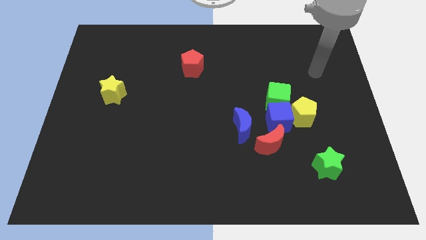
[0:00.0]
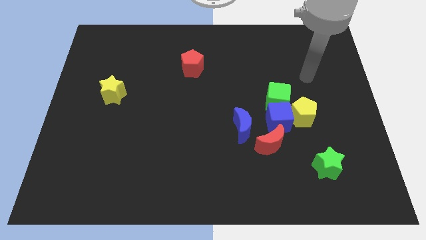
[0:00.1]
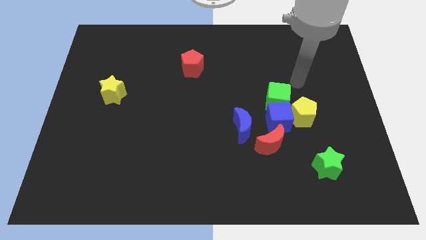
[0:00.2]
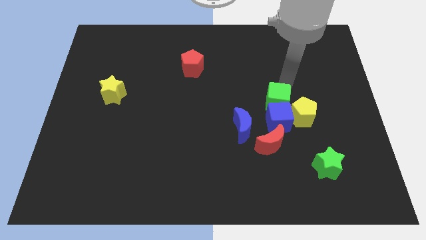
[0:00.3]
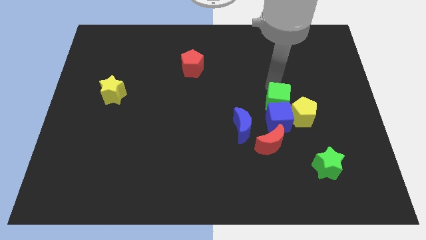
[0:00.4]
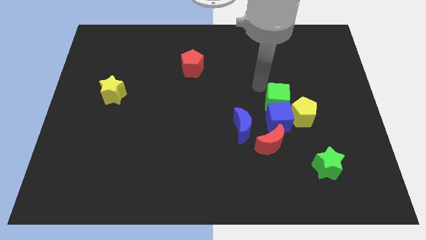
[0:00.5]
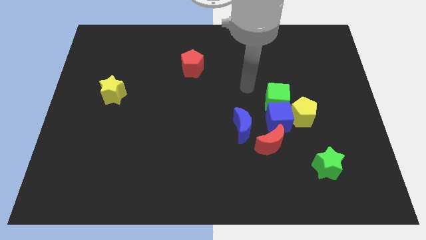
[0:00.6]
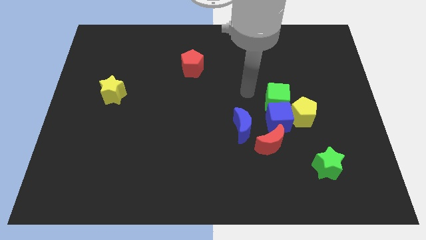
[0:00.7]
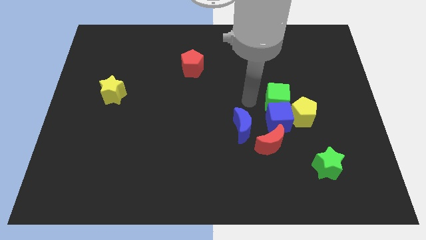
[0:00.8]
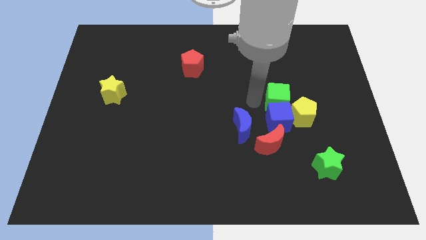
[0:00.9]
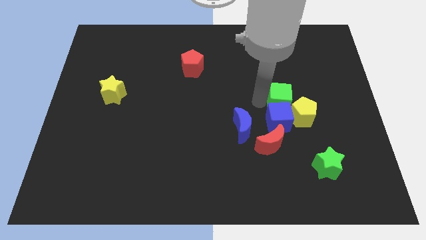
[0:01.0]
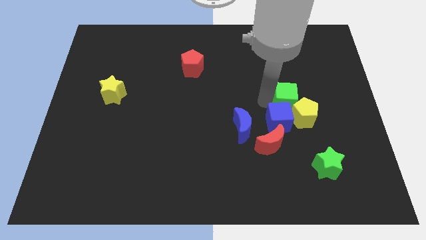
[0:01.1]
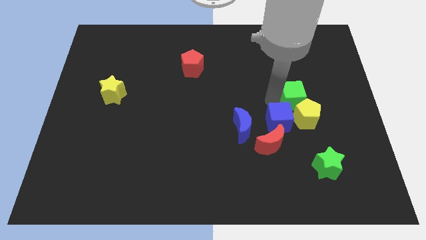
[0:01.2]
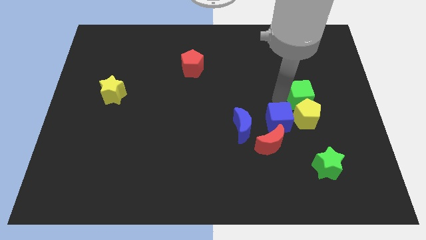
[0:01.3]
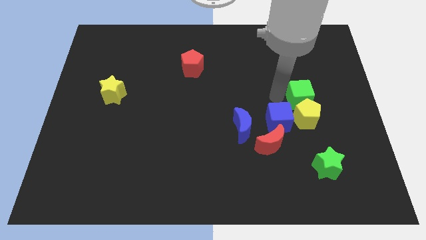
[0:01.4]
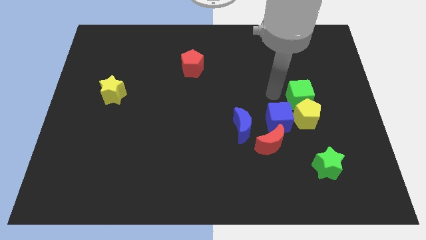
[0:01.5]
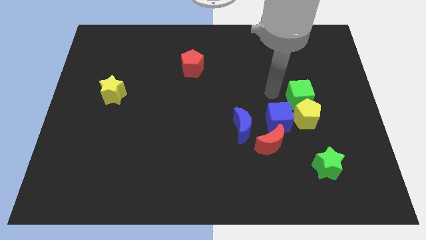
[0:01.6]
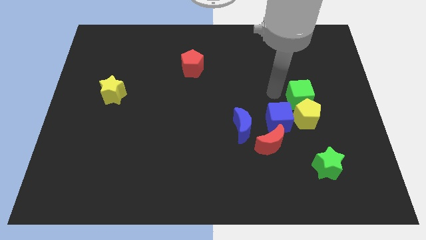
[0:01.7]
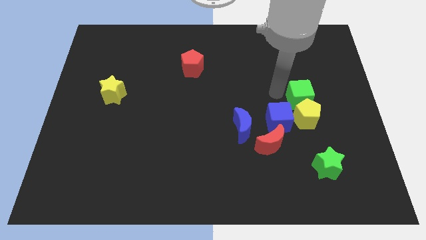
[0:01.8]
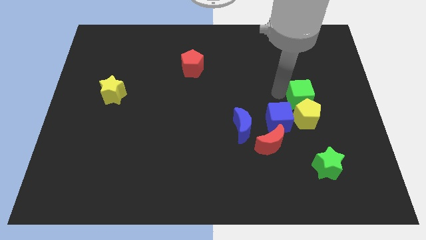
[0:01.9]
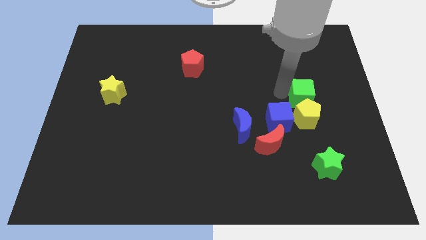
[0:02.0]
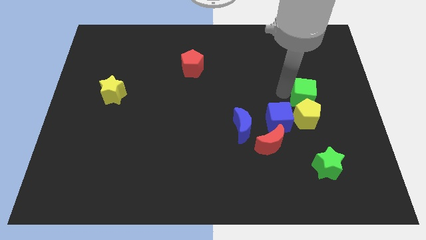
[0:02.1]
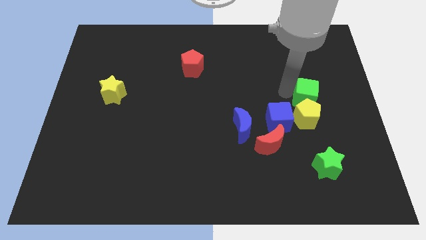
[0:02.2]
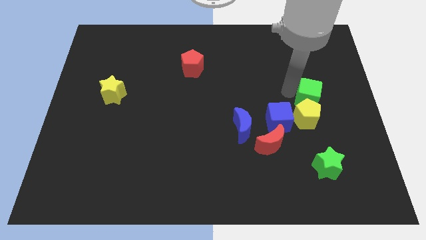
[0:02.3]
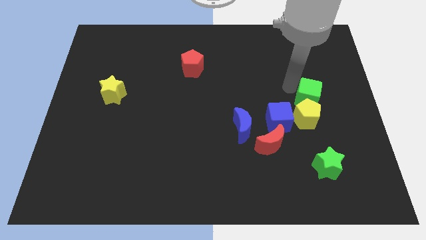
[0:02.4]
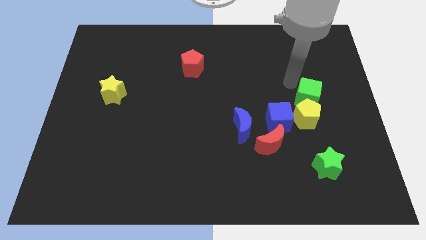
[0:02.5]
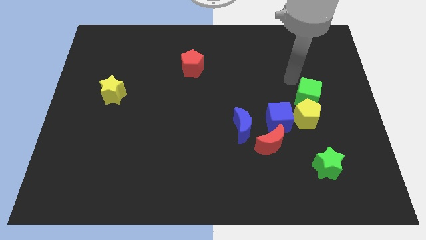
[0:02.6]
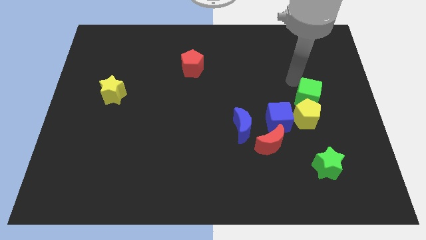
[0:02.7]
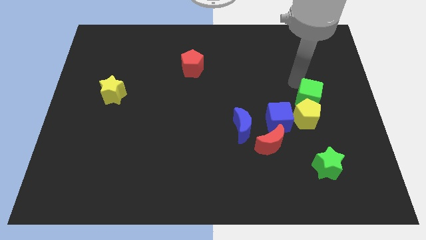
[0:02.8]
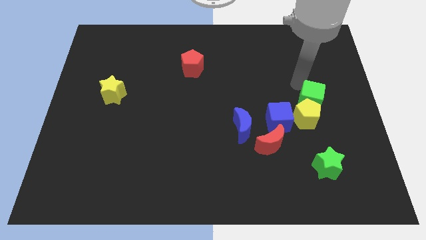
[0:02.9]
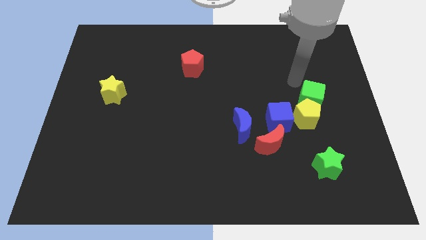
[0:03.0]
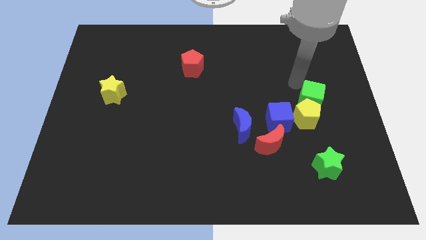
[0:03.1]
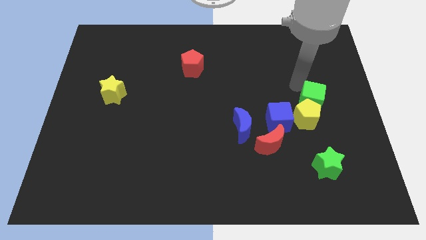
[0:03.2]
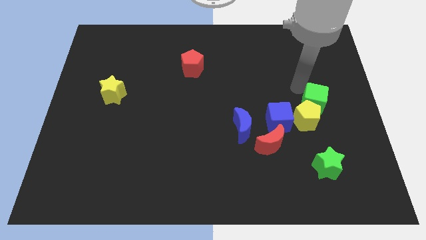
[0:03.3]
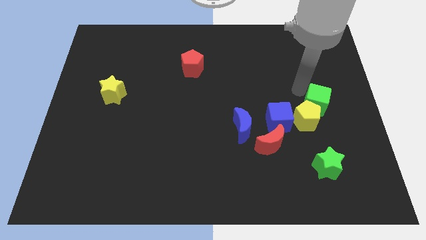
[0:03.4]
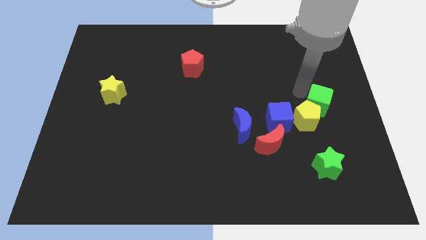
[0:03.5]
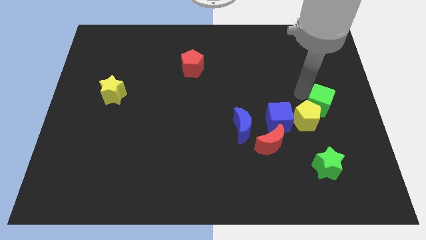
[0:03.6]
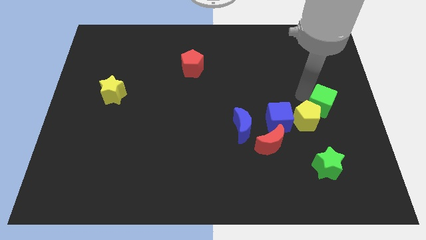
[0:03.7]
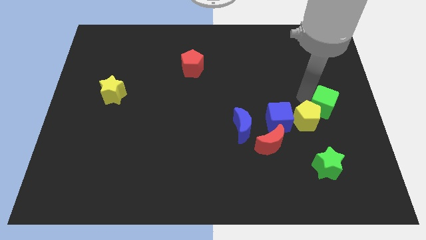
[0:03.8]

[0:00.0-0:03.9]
move the green cube a little bit down and right

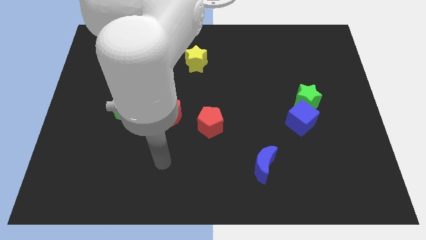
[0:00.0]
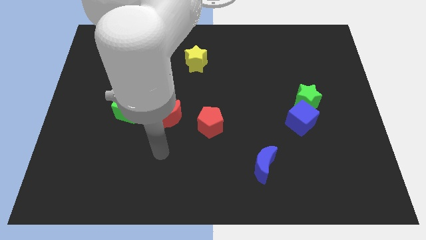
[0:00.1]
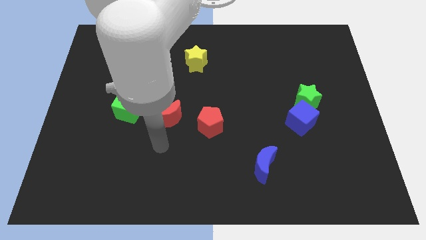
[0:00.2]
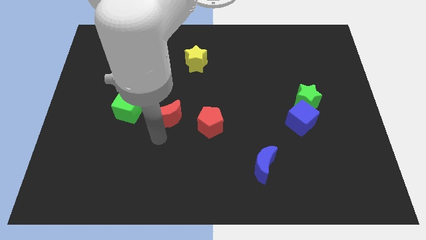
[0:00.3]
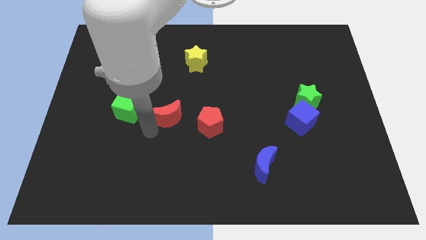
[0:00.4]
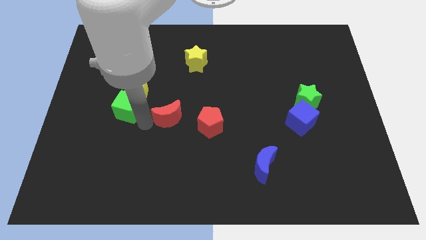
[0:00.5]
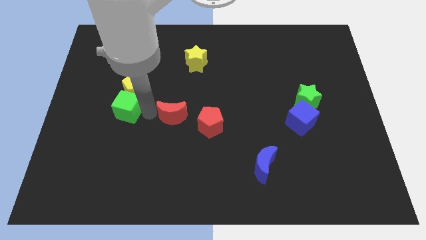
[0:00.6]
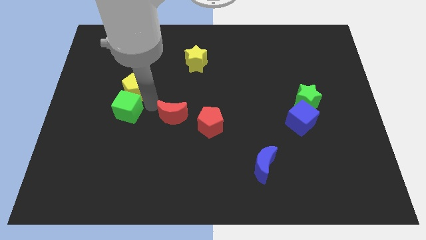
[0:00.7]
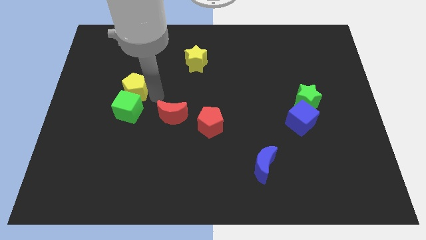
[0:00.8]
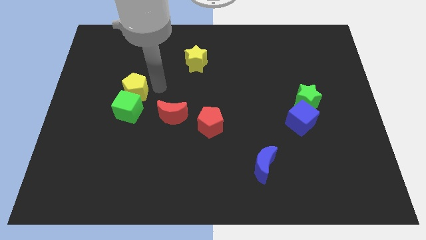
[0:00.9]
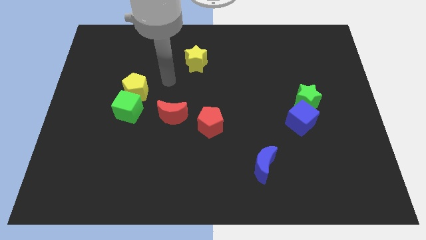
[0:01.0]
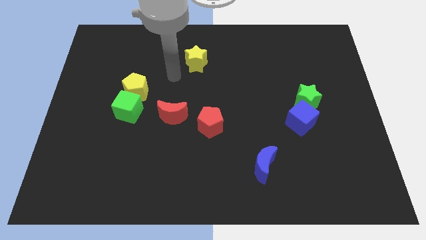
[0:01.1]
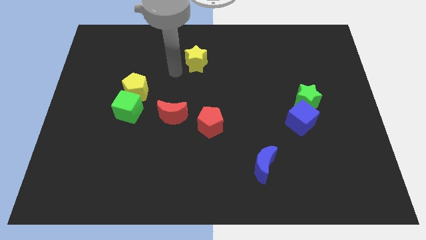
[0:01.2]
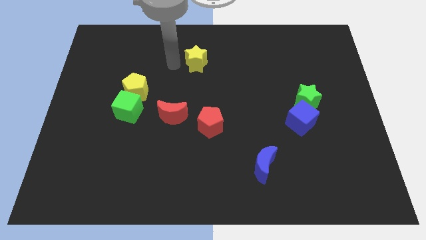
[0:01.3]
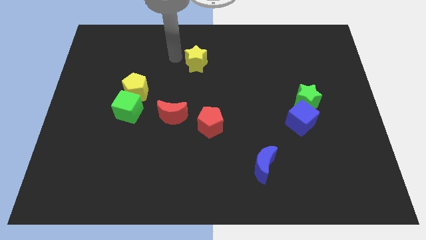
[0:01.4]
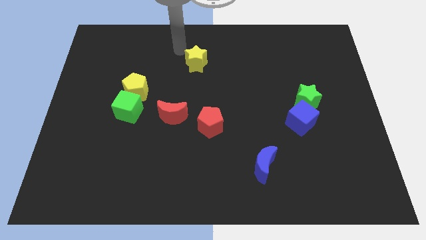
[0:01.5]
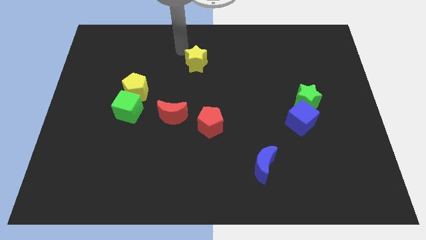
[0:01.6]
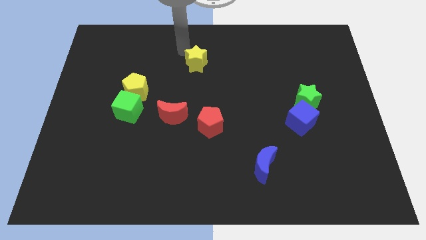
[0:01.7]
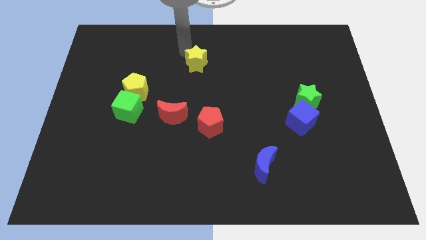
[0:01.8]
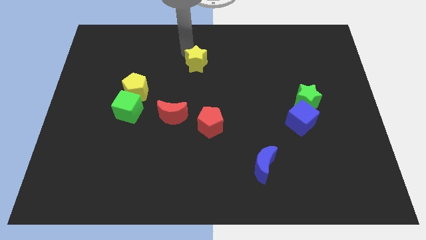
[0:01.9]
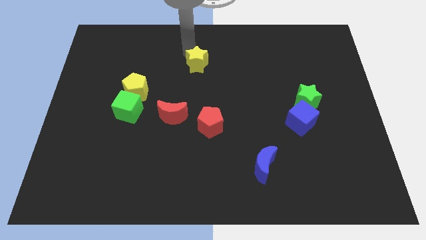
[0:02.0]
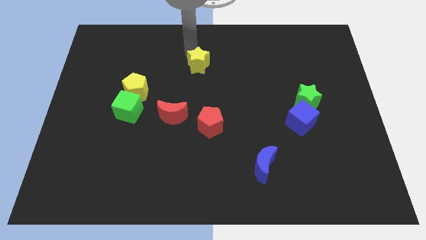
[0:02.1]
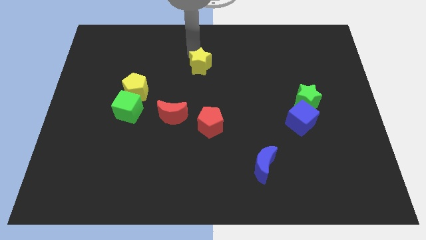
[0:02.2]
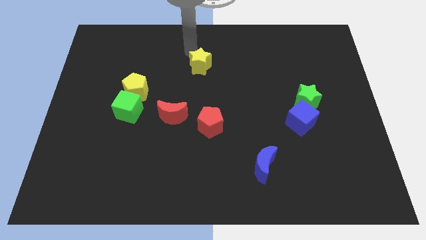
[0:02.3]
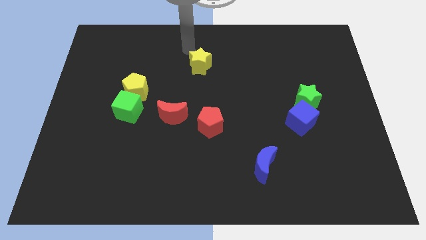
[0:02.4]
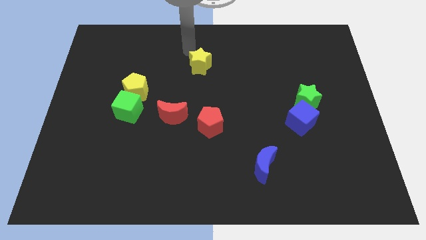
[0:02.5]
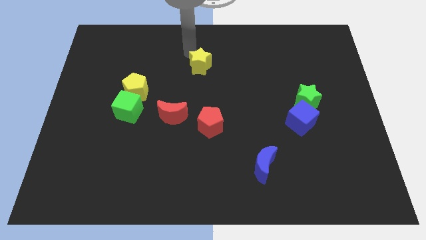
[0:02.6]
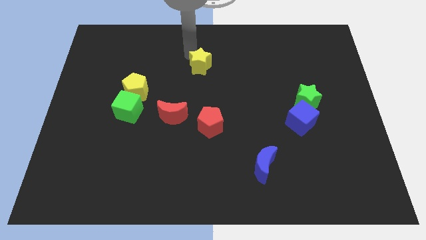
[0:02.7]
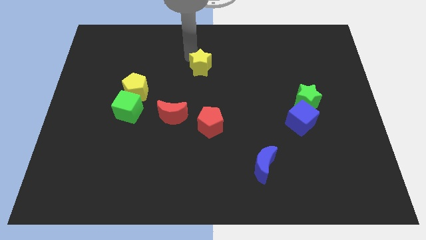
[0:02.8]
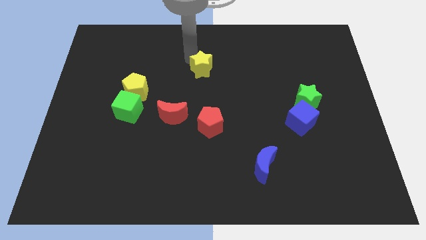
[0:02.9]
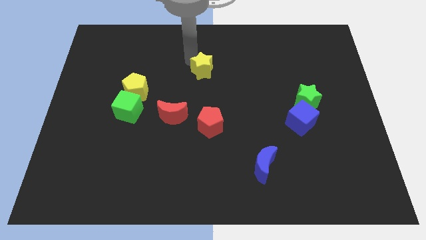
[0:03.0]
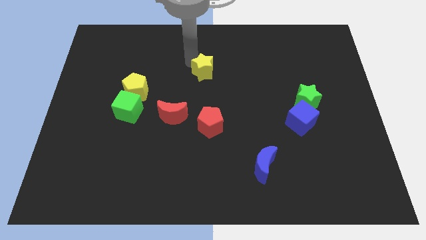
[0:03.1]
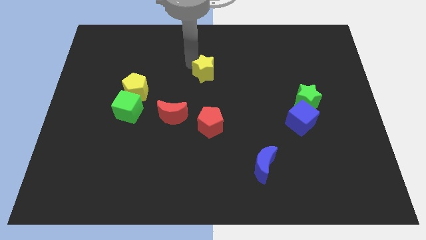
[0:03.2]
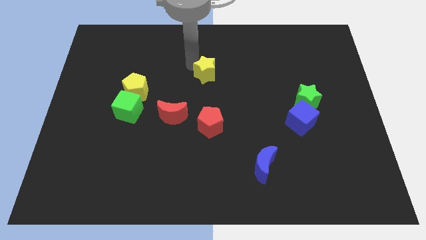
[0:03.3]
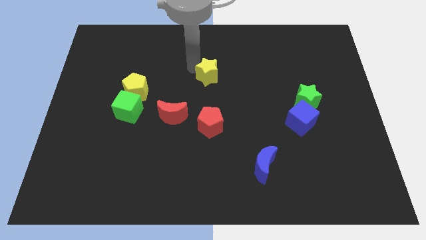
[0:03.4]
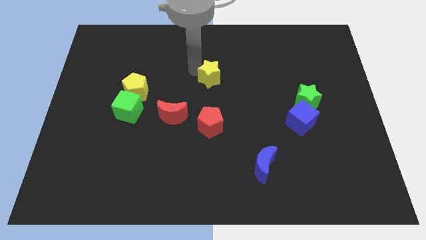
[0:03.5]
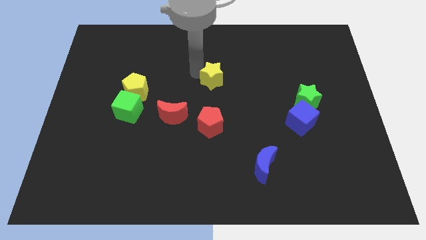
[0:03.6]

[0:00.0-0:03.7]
slide the yellow star diagonally down and to the right slightly
